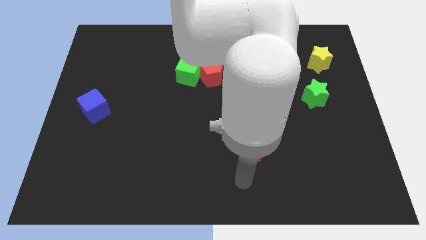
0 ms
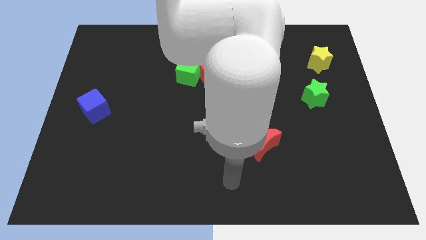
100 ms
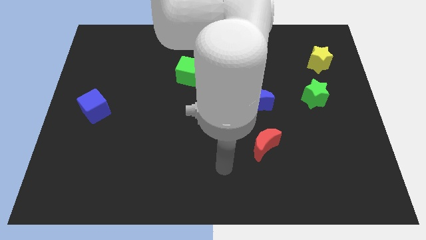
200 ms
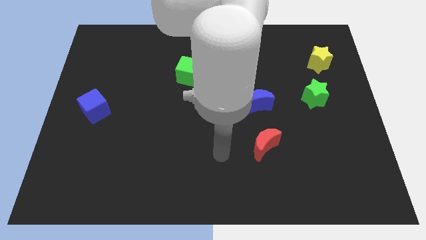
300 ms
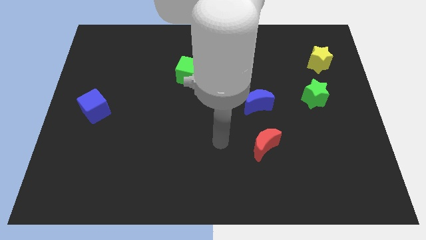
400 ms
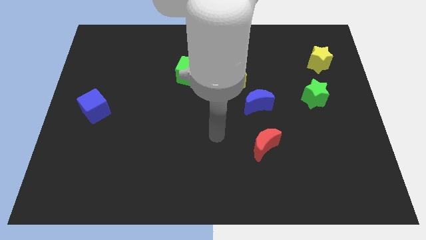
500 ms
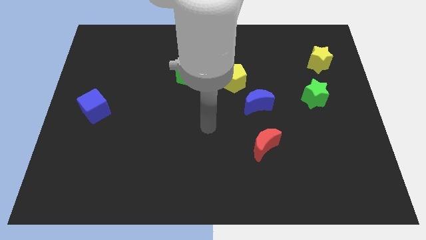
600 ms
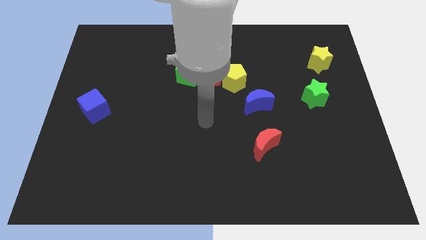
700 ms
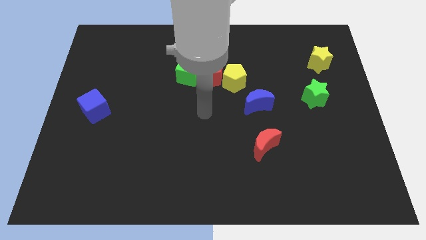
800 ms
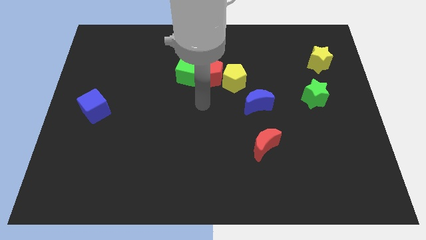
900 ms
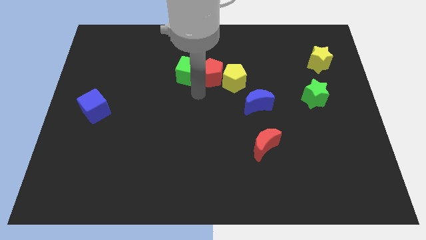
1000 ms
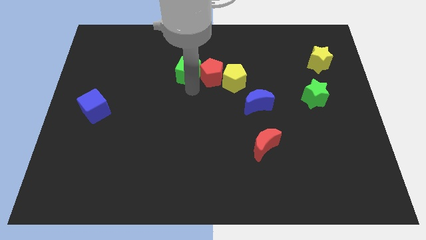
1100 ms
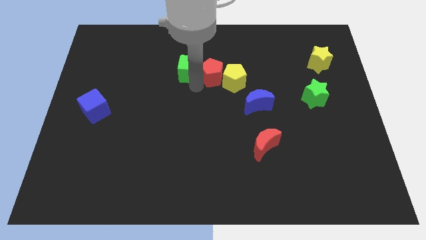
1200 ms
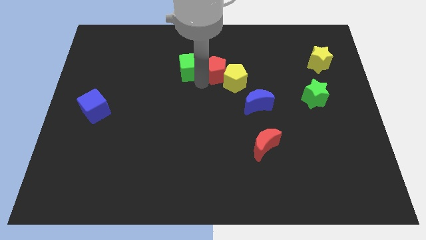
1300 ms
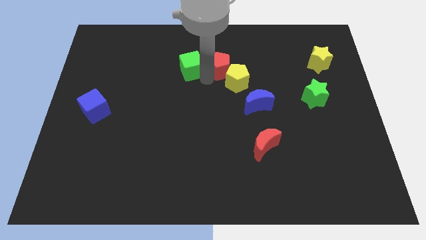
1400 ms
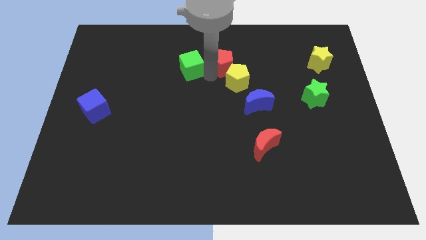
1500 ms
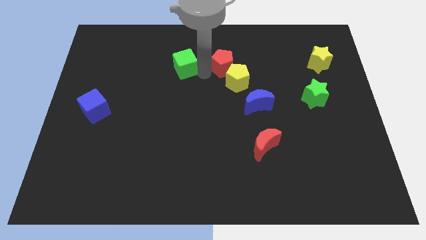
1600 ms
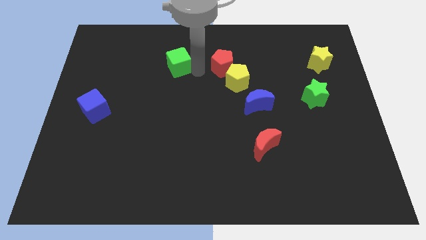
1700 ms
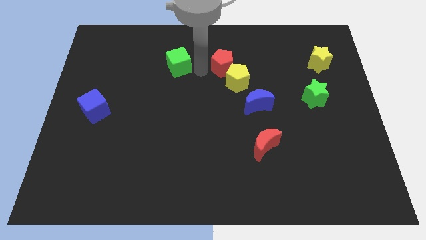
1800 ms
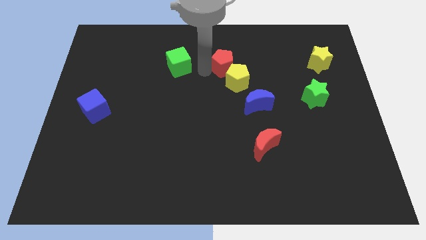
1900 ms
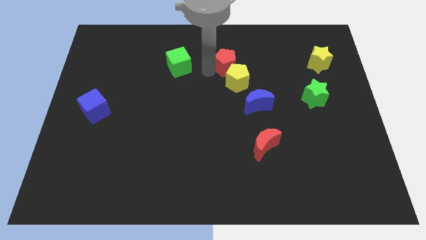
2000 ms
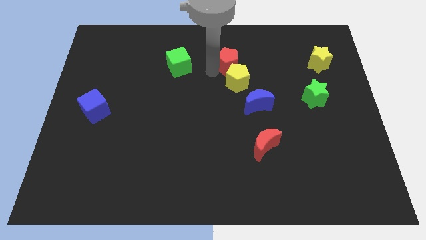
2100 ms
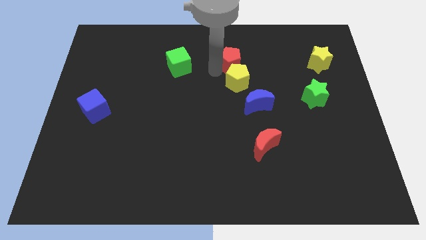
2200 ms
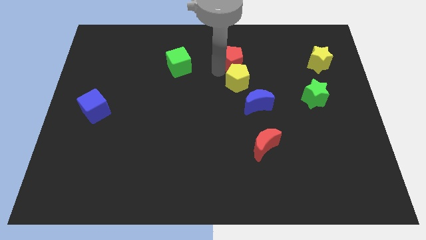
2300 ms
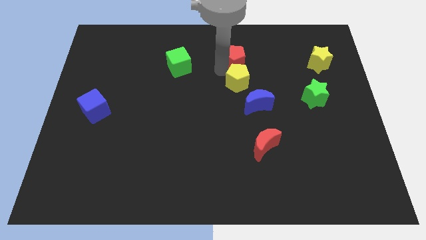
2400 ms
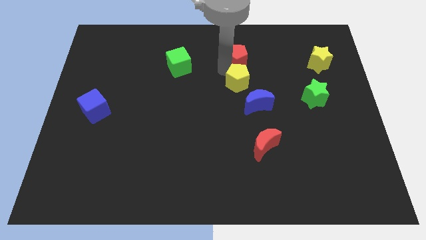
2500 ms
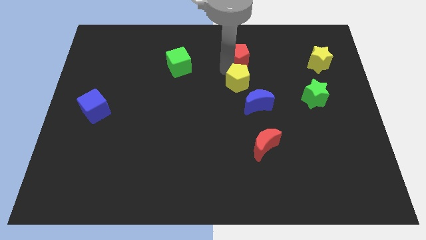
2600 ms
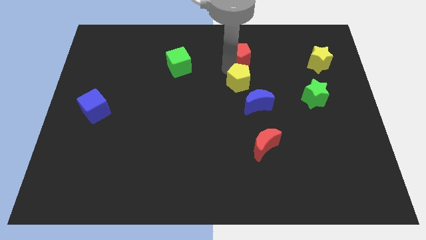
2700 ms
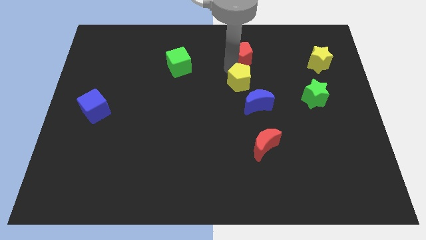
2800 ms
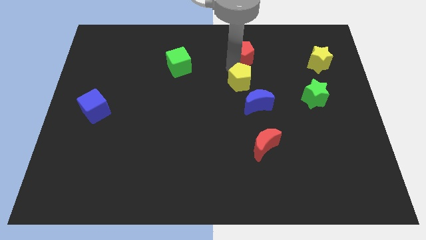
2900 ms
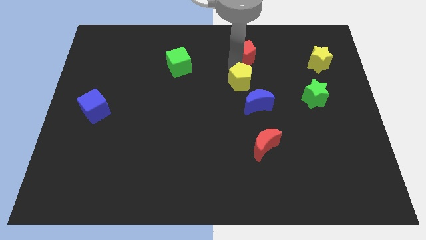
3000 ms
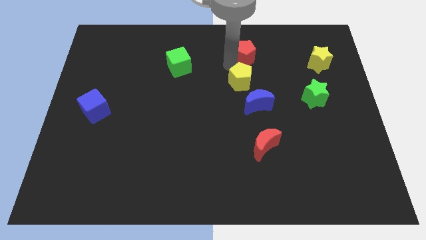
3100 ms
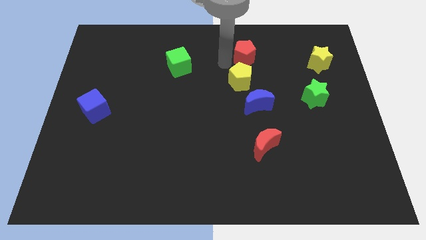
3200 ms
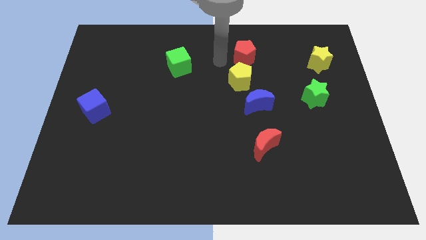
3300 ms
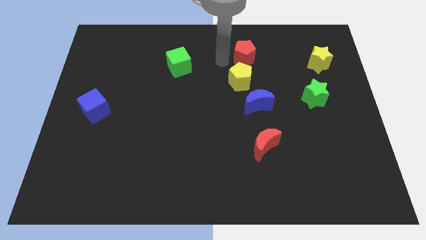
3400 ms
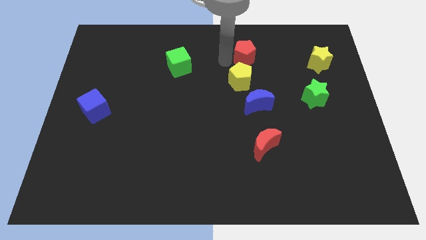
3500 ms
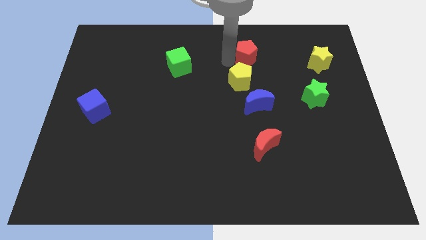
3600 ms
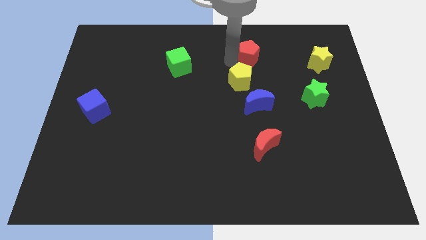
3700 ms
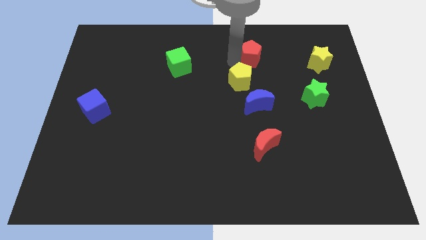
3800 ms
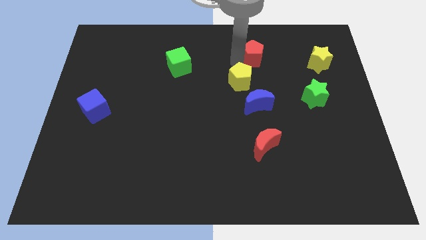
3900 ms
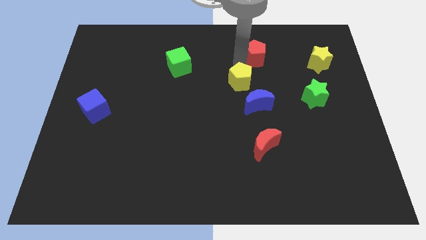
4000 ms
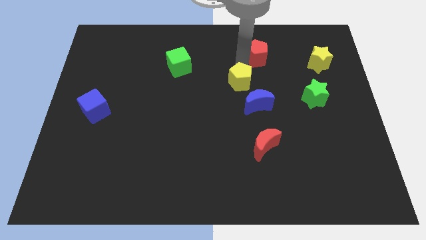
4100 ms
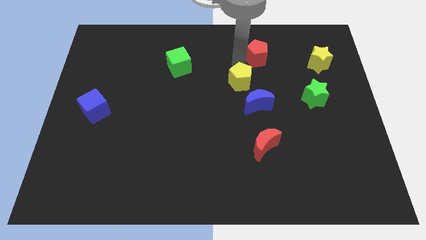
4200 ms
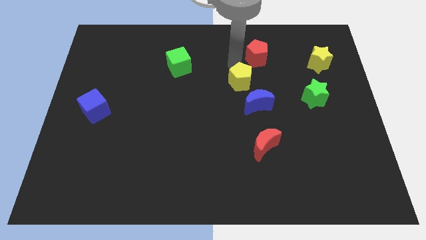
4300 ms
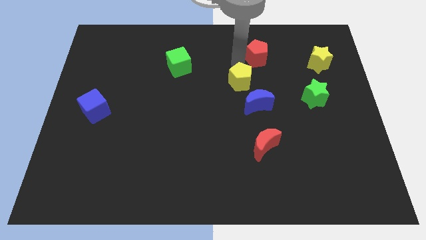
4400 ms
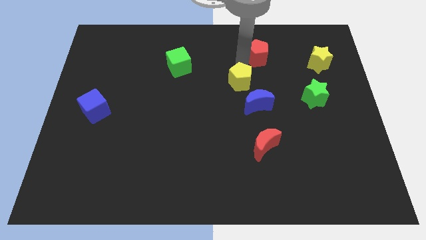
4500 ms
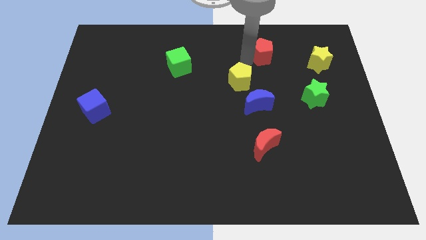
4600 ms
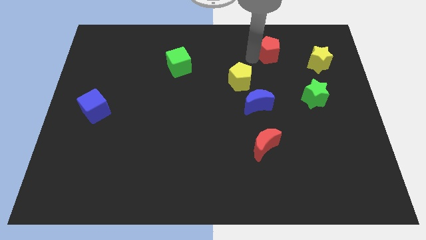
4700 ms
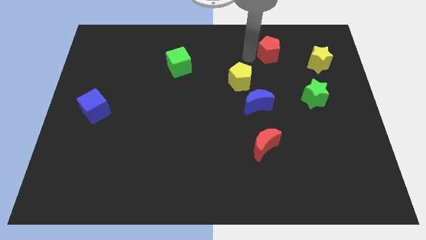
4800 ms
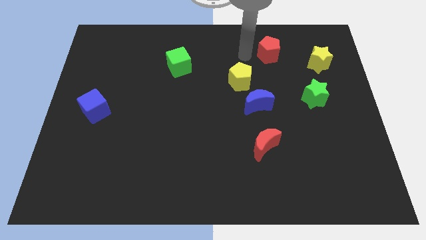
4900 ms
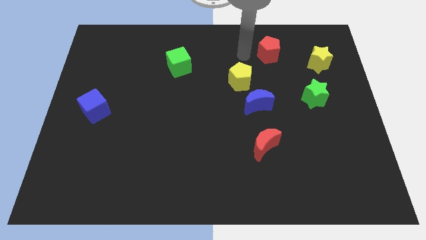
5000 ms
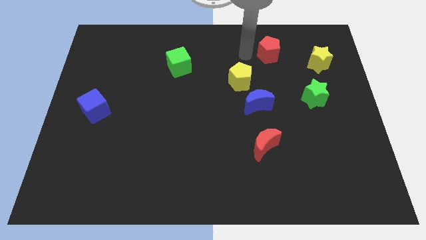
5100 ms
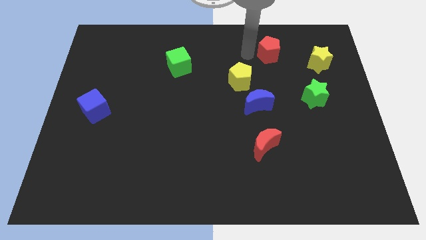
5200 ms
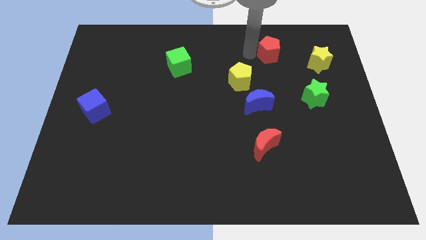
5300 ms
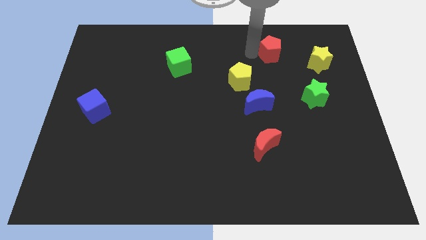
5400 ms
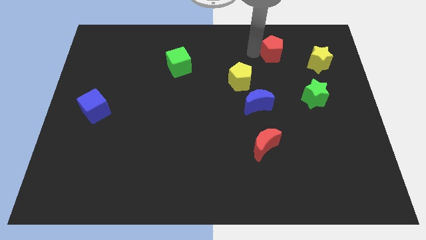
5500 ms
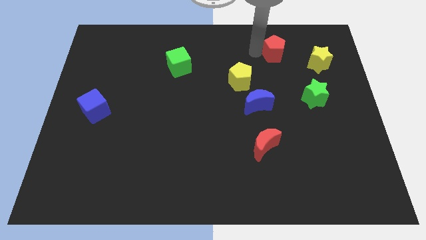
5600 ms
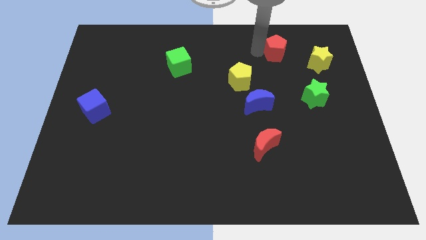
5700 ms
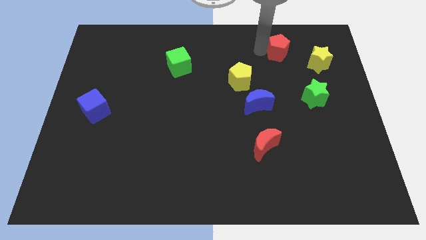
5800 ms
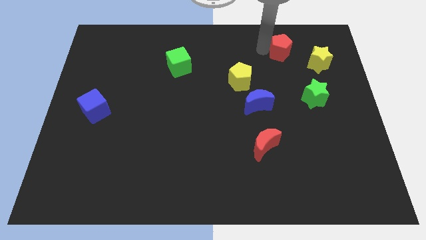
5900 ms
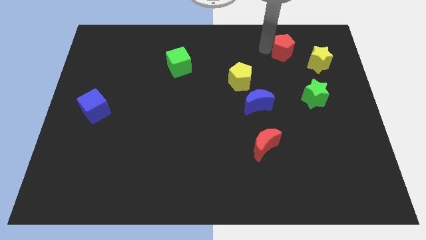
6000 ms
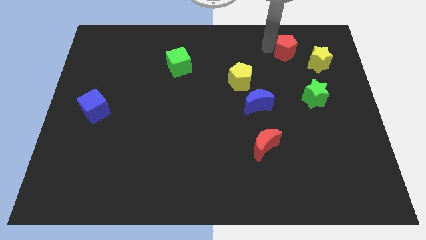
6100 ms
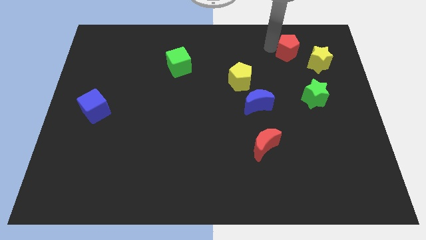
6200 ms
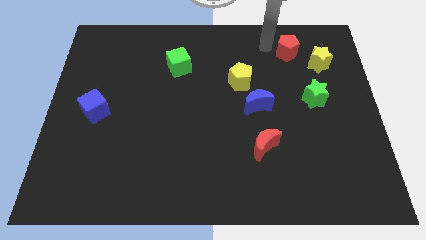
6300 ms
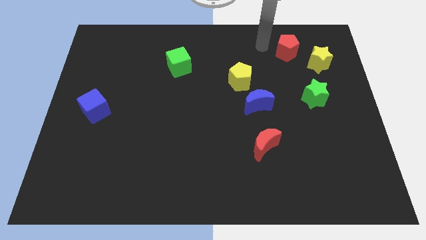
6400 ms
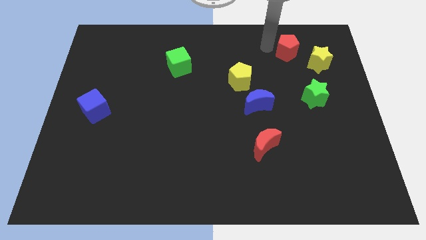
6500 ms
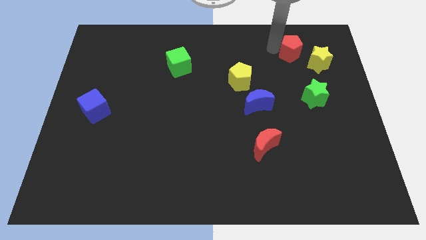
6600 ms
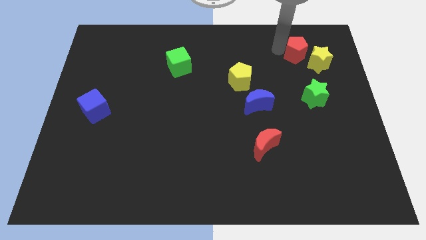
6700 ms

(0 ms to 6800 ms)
slide the red pentagon to the top side of the green star
